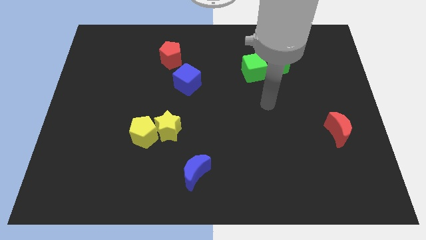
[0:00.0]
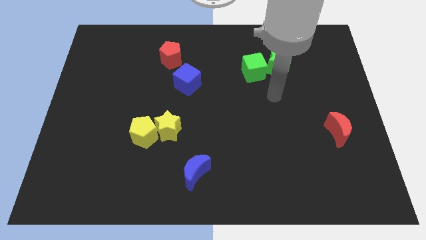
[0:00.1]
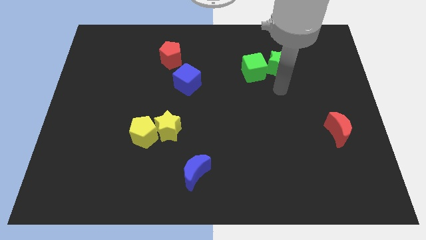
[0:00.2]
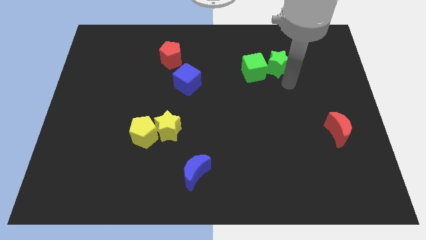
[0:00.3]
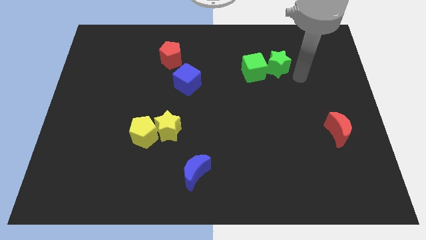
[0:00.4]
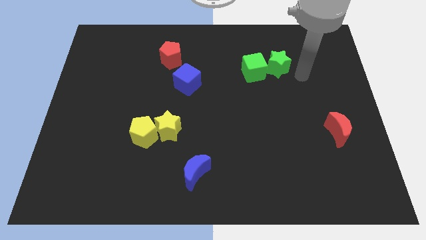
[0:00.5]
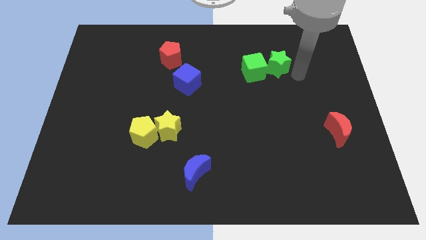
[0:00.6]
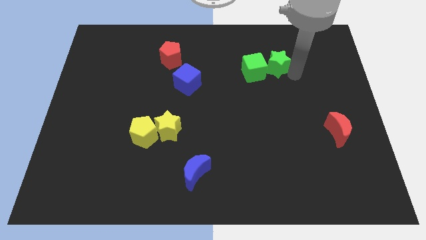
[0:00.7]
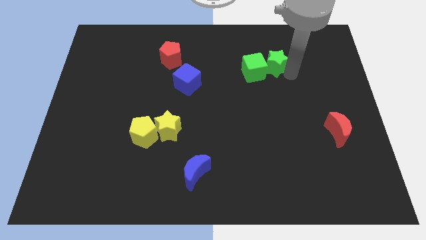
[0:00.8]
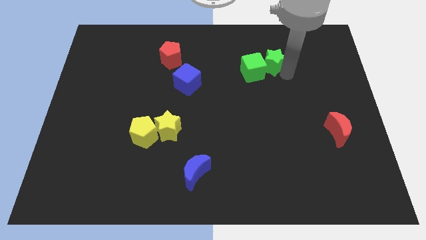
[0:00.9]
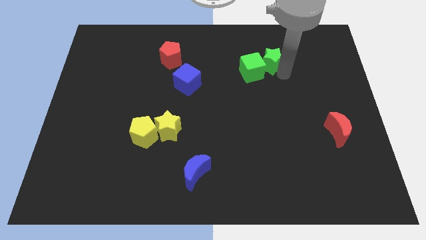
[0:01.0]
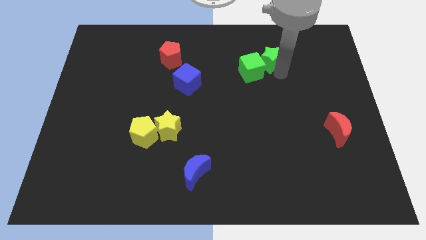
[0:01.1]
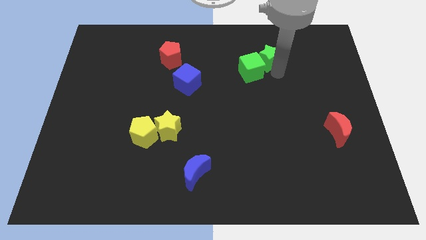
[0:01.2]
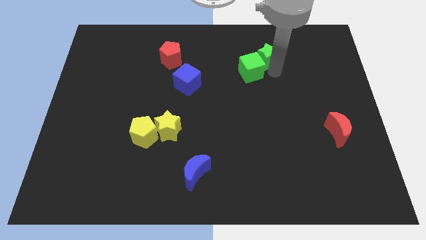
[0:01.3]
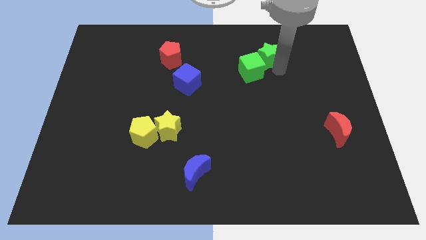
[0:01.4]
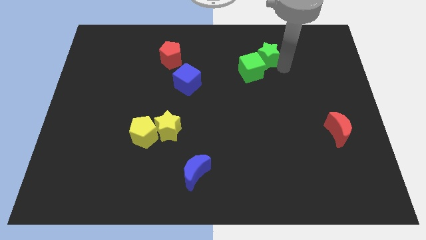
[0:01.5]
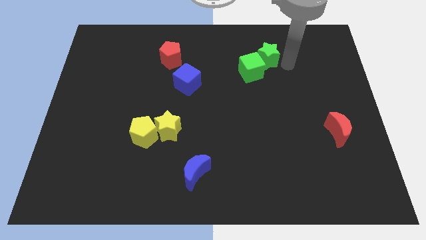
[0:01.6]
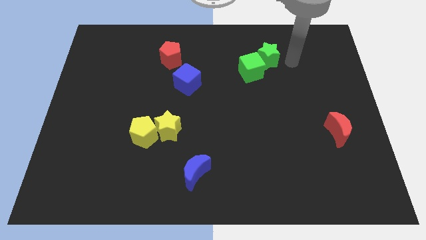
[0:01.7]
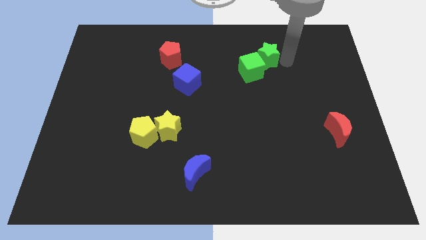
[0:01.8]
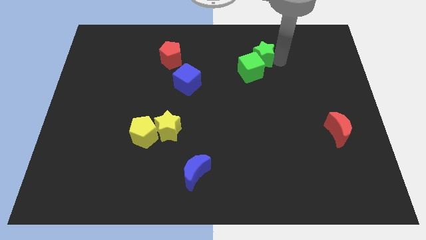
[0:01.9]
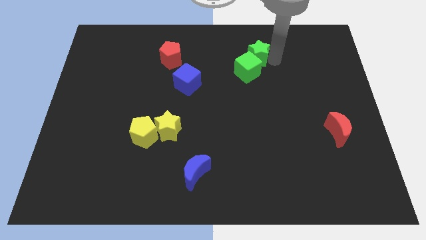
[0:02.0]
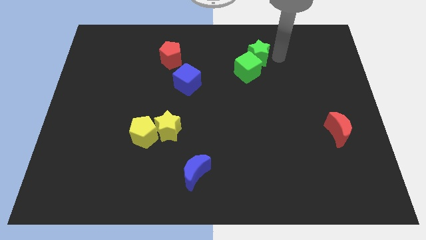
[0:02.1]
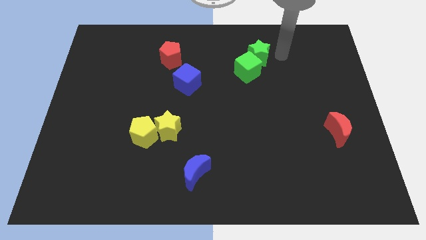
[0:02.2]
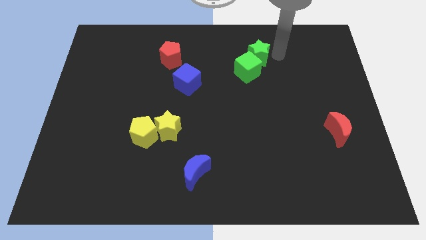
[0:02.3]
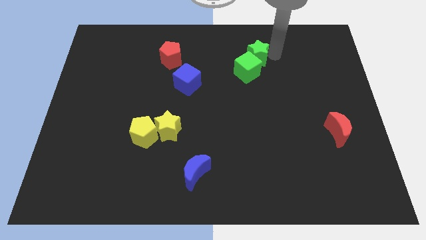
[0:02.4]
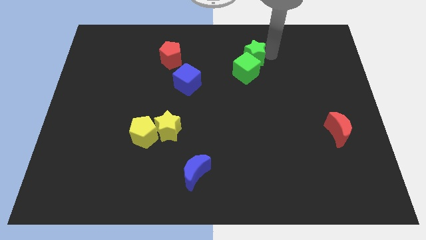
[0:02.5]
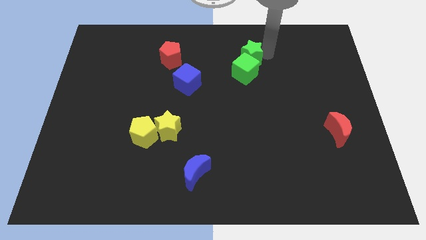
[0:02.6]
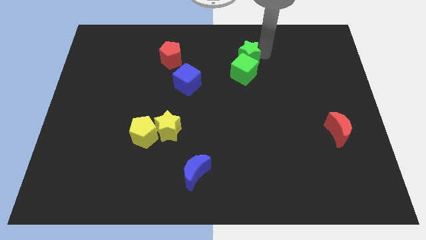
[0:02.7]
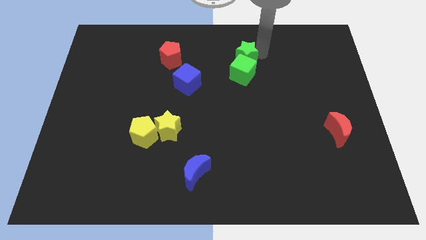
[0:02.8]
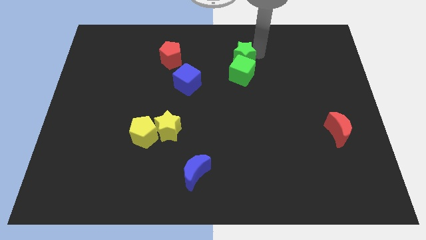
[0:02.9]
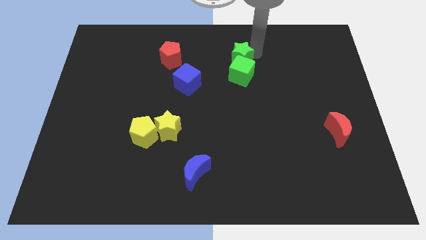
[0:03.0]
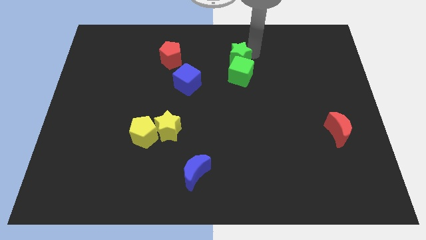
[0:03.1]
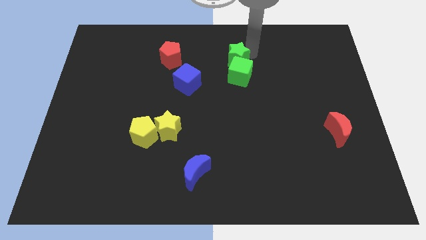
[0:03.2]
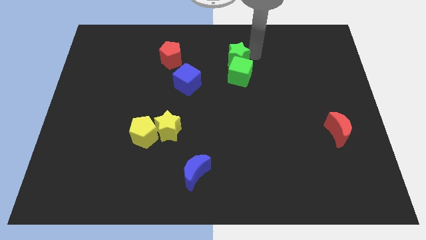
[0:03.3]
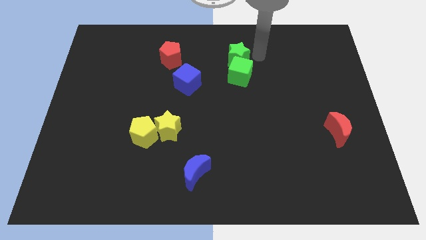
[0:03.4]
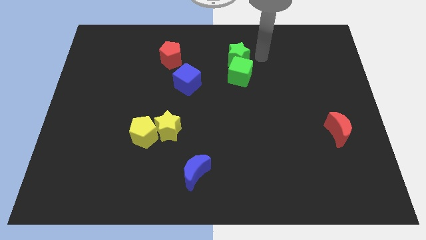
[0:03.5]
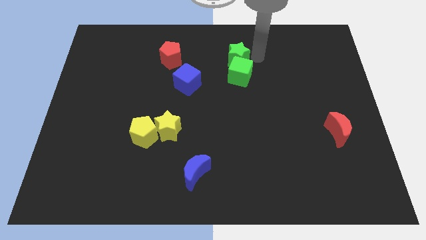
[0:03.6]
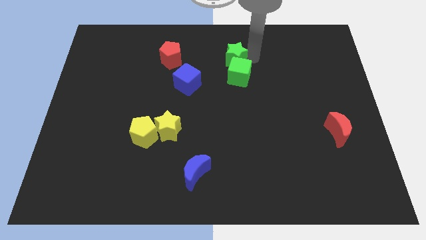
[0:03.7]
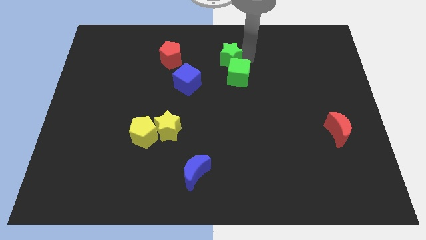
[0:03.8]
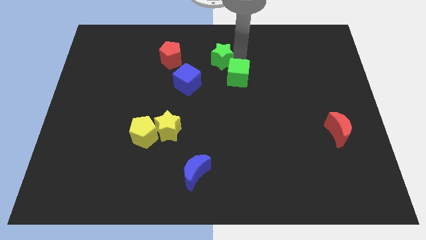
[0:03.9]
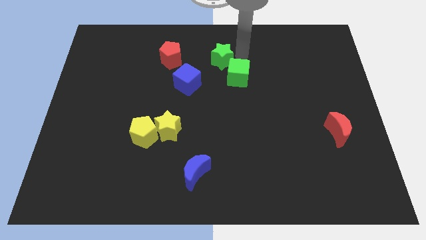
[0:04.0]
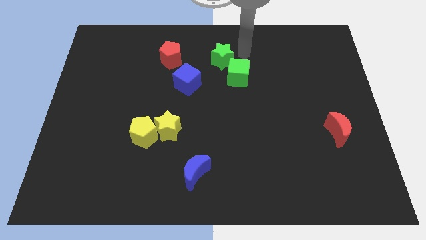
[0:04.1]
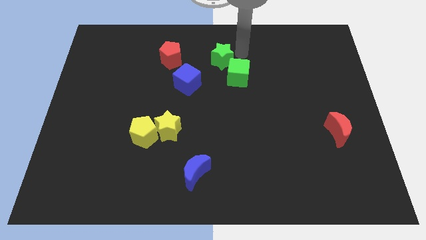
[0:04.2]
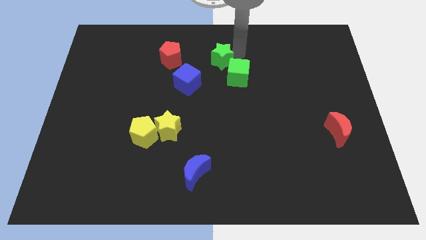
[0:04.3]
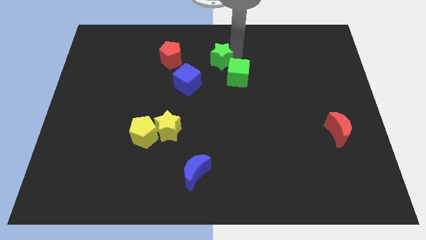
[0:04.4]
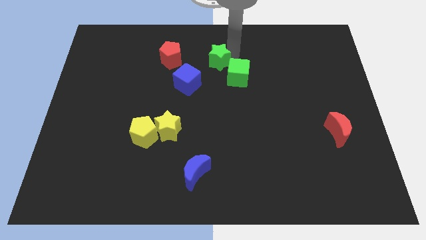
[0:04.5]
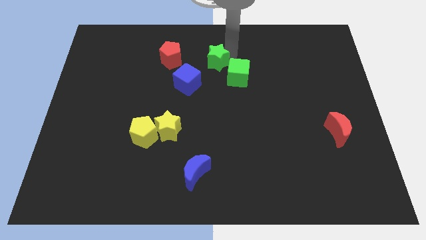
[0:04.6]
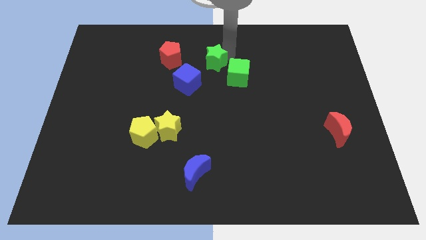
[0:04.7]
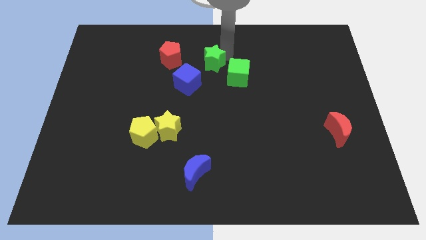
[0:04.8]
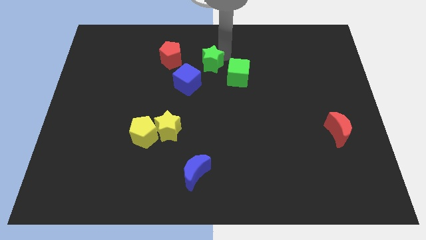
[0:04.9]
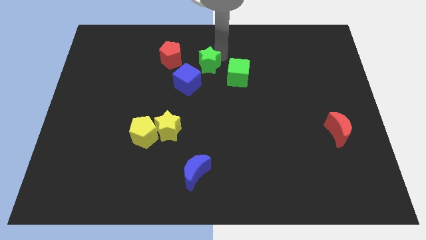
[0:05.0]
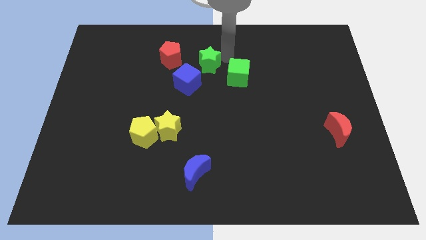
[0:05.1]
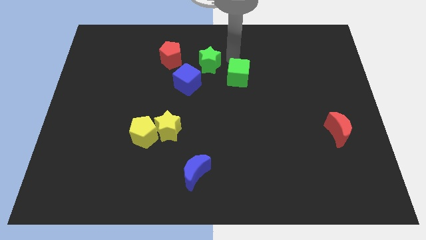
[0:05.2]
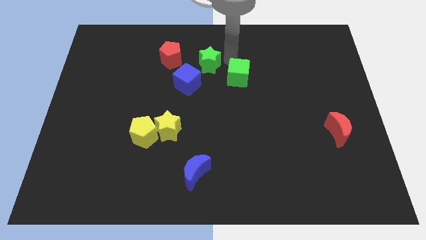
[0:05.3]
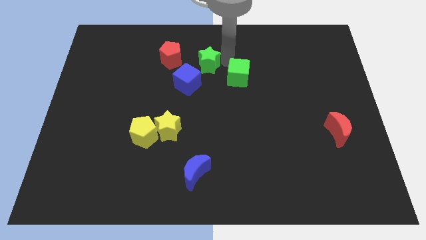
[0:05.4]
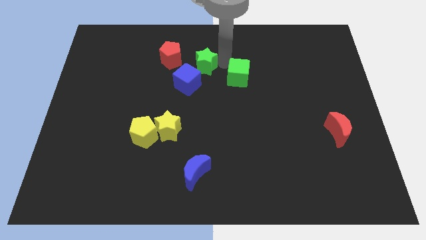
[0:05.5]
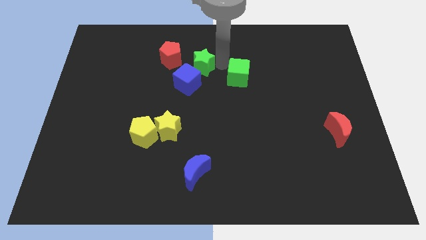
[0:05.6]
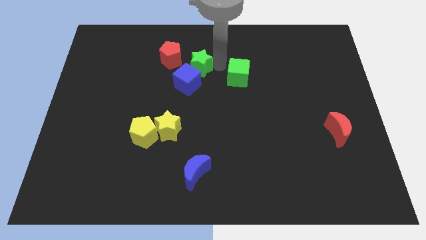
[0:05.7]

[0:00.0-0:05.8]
move the green star left

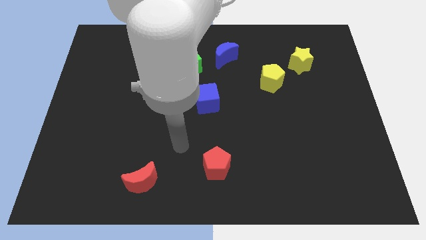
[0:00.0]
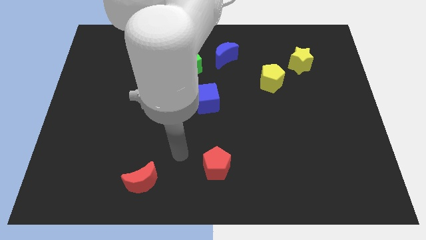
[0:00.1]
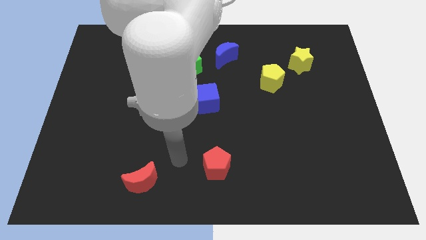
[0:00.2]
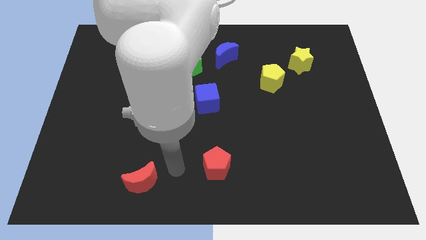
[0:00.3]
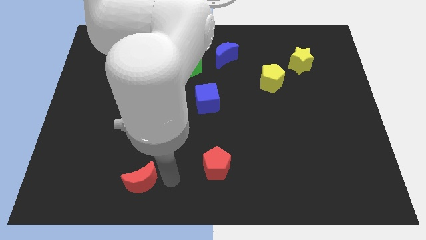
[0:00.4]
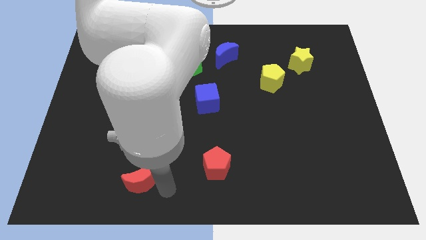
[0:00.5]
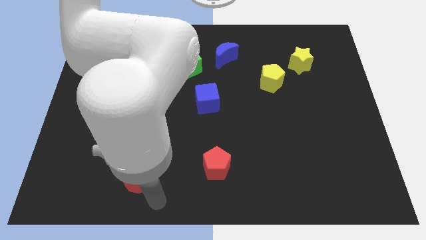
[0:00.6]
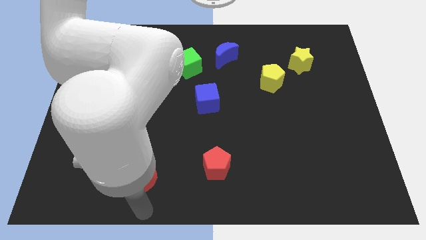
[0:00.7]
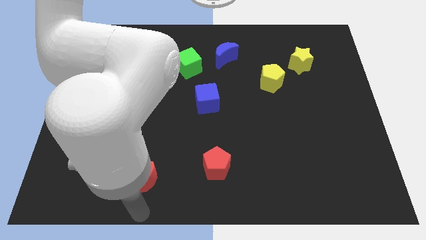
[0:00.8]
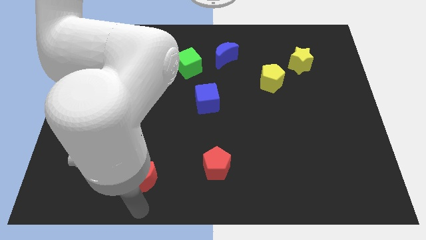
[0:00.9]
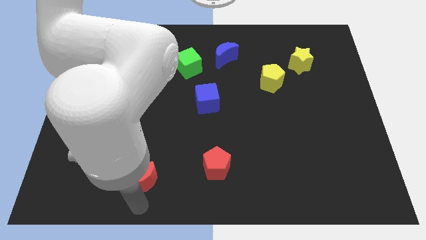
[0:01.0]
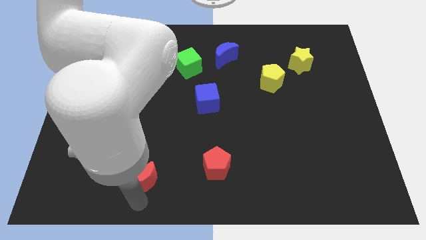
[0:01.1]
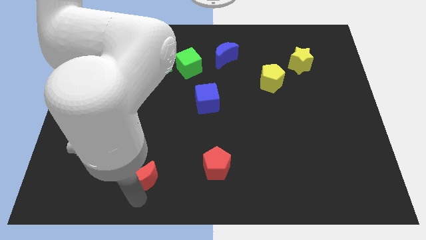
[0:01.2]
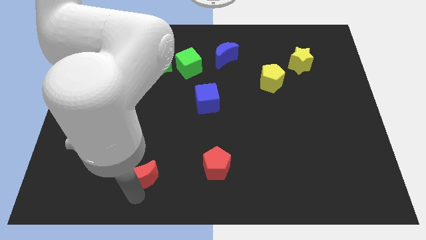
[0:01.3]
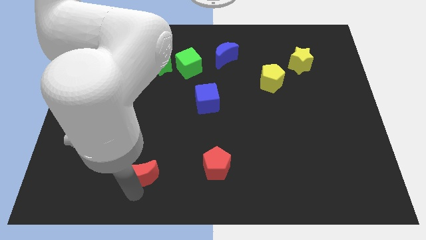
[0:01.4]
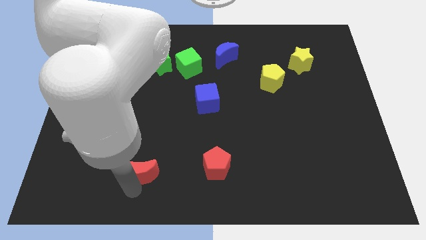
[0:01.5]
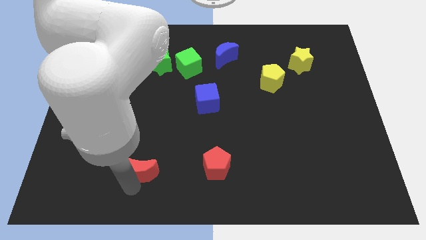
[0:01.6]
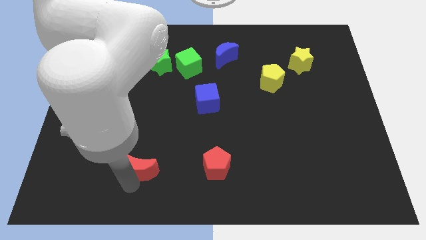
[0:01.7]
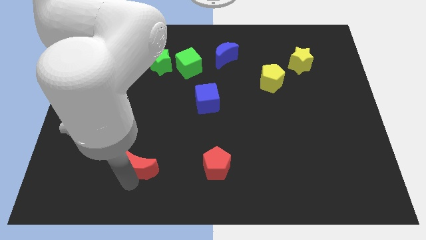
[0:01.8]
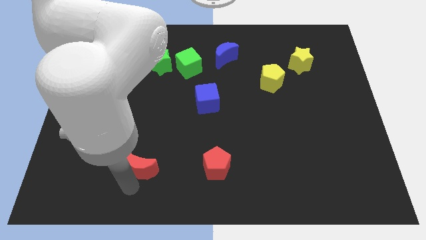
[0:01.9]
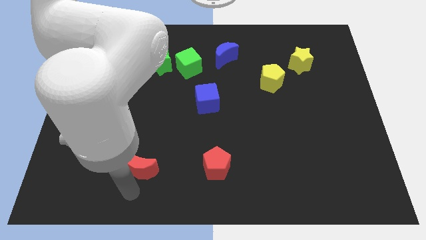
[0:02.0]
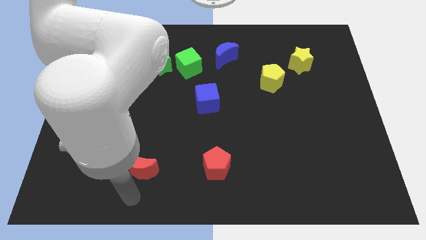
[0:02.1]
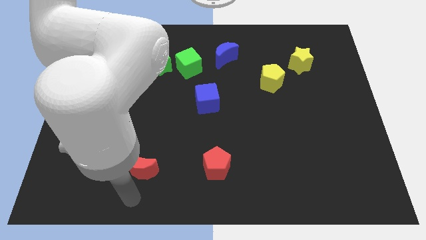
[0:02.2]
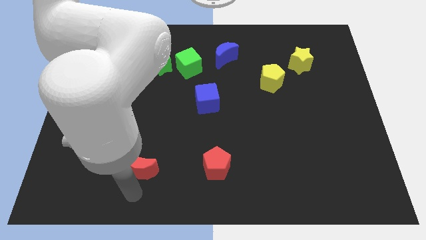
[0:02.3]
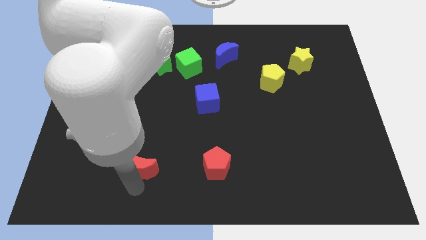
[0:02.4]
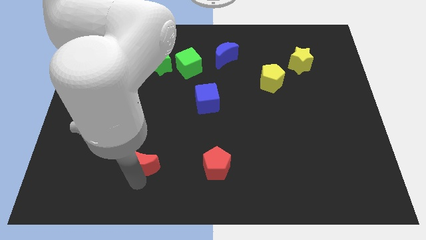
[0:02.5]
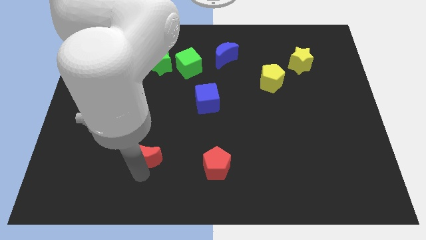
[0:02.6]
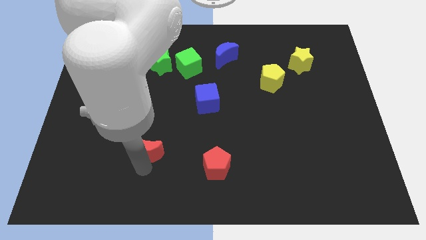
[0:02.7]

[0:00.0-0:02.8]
slightly move the red moon up
